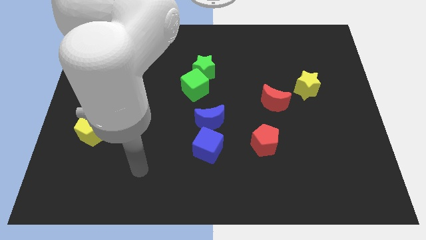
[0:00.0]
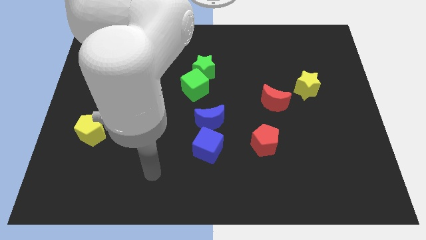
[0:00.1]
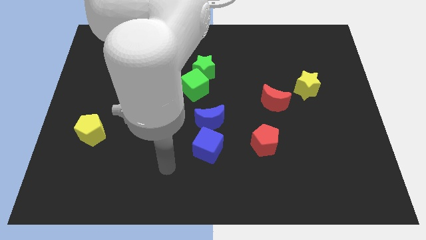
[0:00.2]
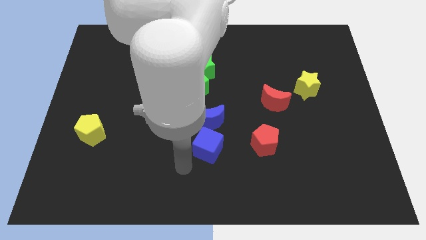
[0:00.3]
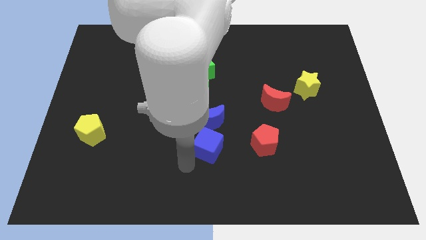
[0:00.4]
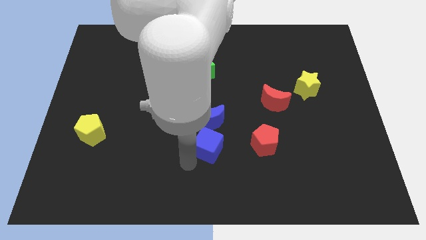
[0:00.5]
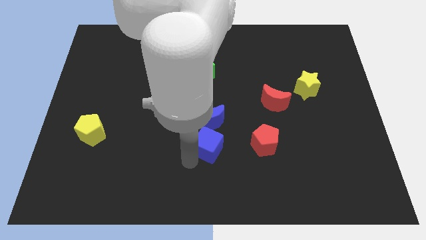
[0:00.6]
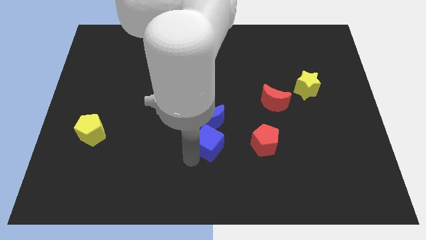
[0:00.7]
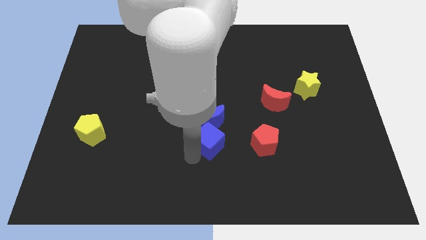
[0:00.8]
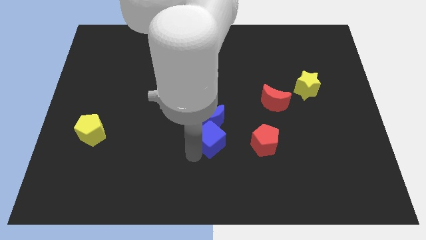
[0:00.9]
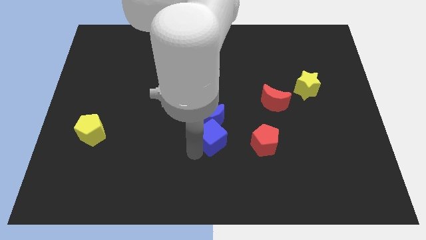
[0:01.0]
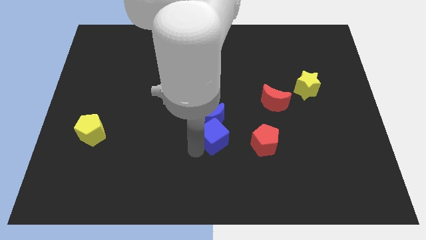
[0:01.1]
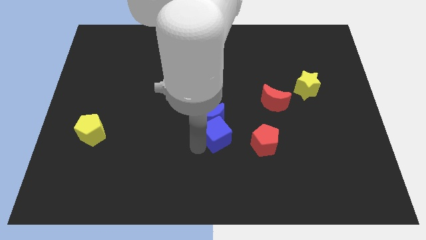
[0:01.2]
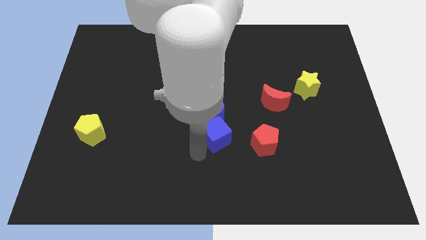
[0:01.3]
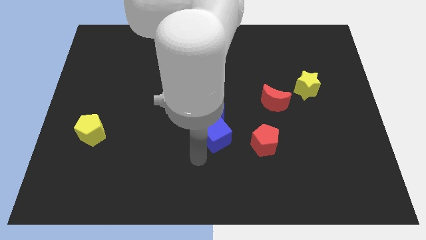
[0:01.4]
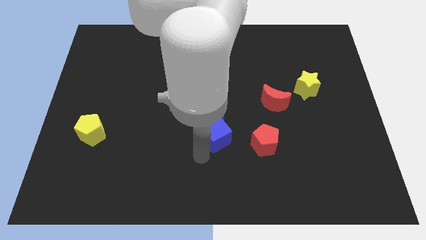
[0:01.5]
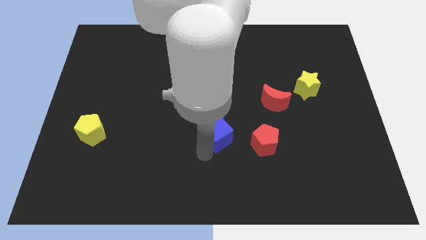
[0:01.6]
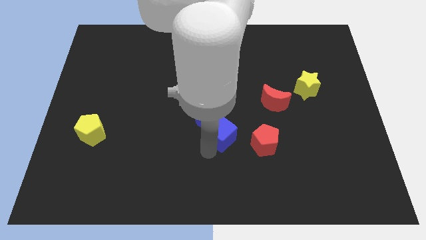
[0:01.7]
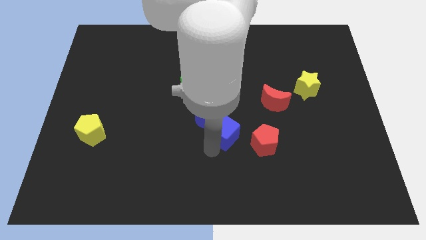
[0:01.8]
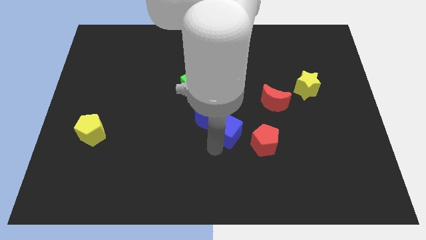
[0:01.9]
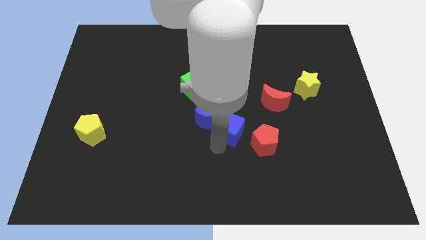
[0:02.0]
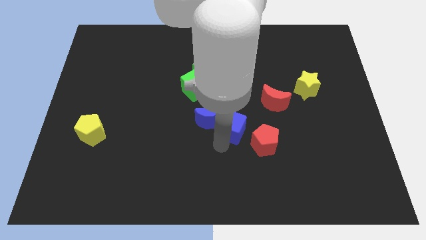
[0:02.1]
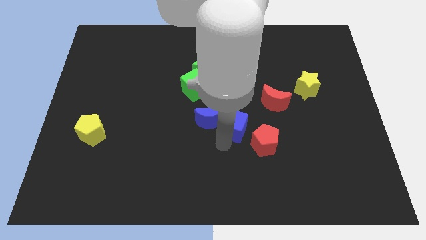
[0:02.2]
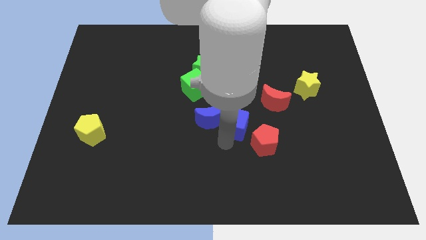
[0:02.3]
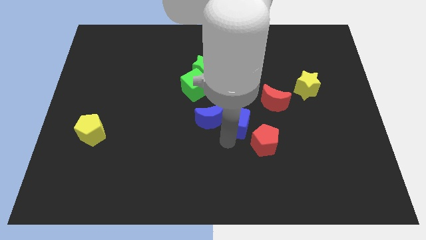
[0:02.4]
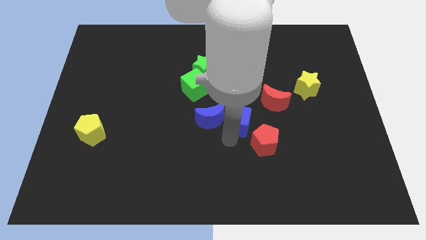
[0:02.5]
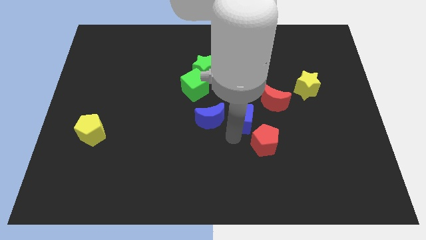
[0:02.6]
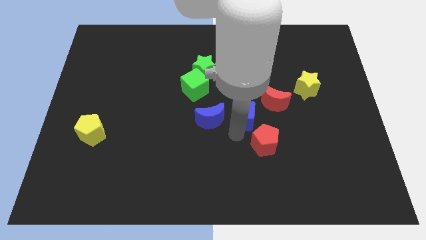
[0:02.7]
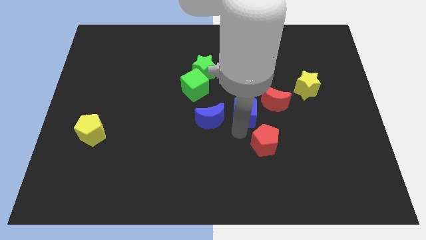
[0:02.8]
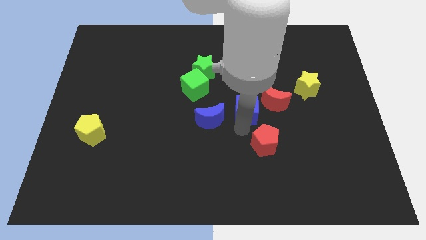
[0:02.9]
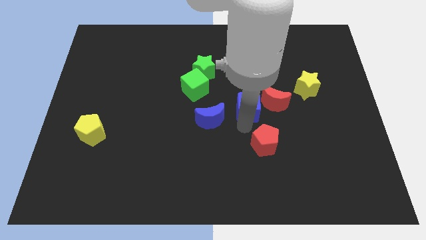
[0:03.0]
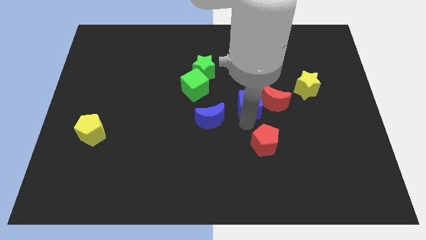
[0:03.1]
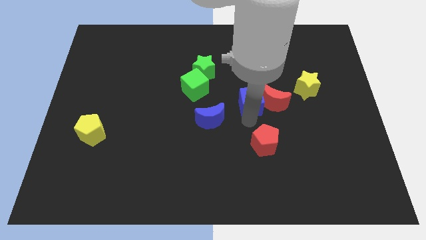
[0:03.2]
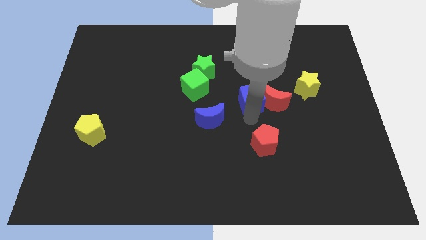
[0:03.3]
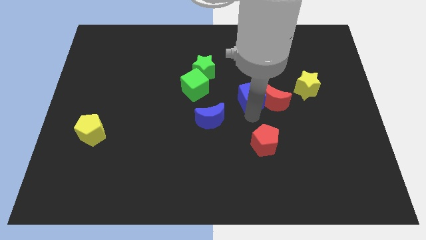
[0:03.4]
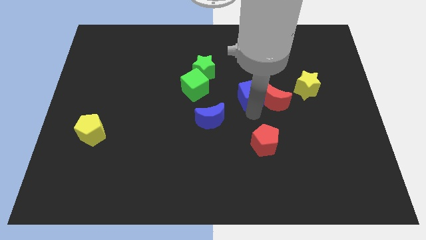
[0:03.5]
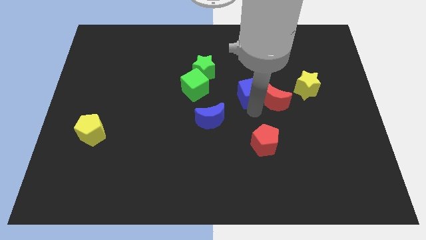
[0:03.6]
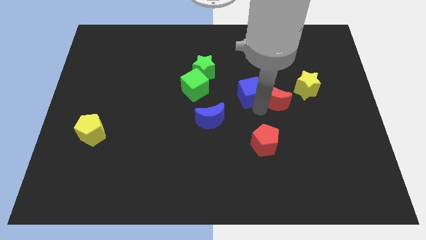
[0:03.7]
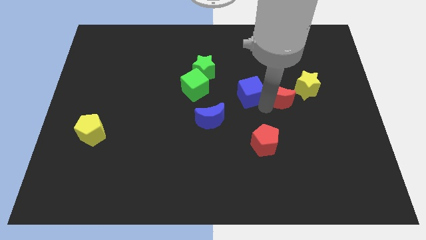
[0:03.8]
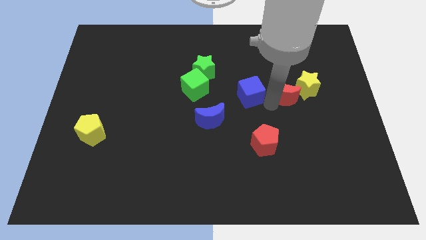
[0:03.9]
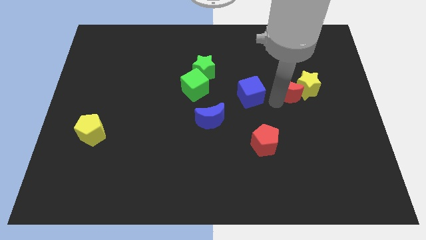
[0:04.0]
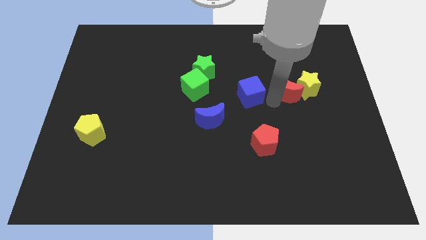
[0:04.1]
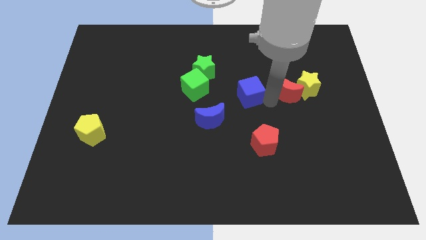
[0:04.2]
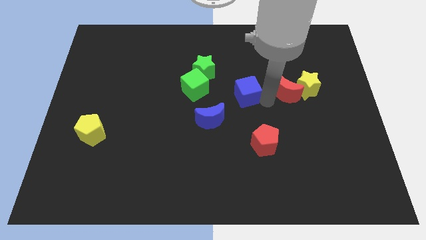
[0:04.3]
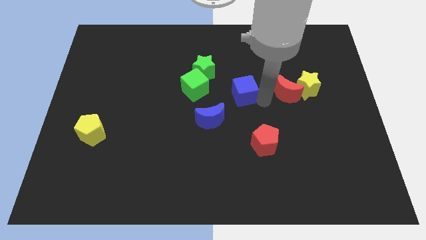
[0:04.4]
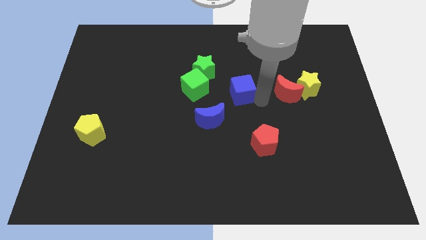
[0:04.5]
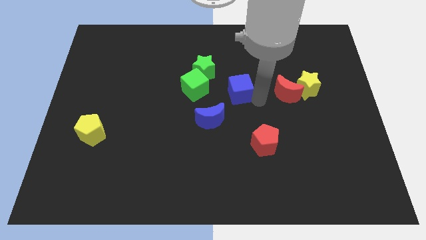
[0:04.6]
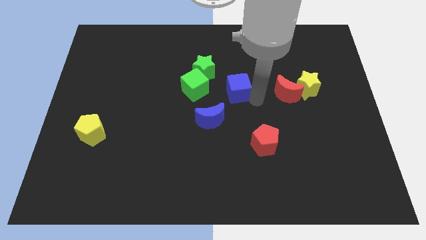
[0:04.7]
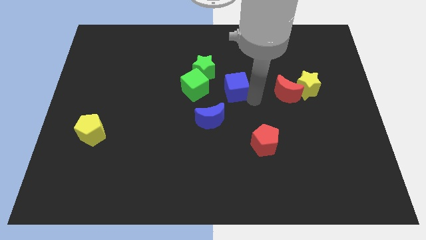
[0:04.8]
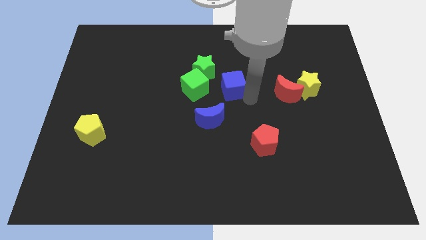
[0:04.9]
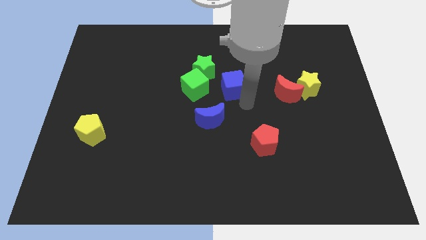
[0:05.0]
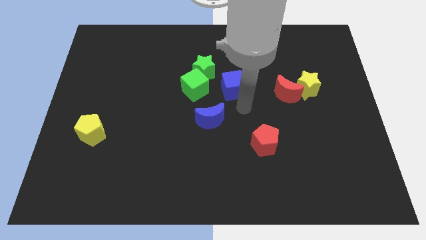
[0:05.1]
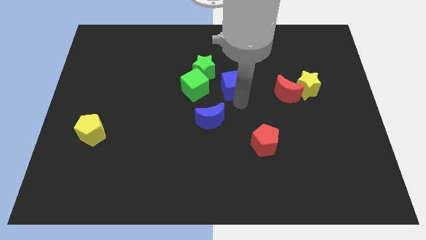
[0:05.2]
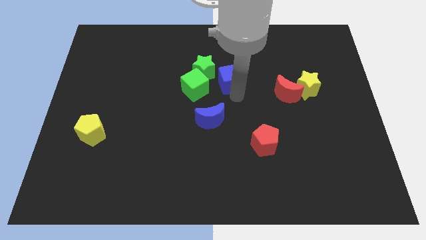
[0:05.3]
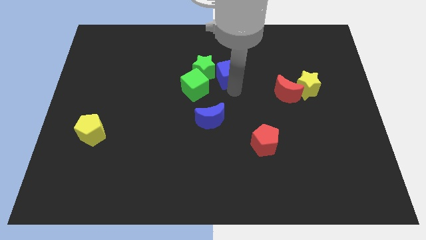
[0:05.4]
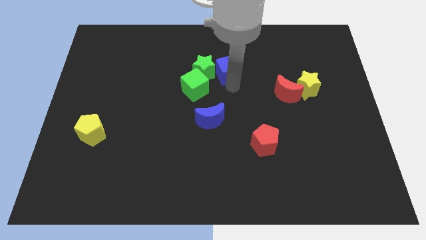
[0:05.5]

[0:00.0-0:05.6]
push the blue cube diagonally up and to the right of the green star

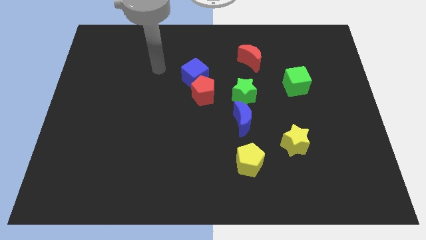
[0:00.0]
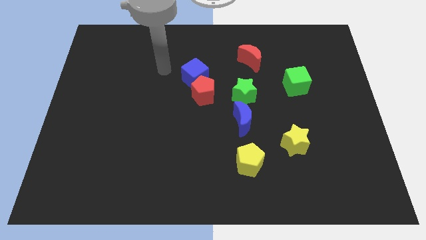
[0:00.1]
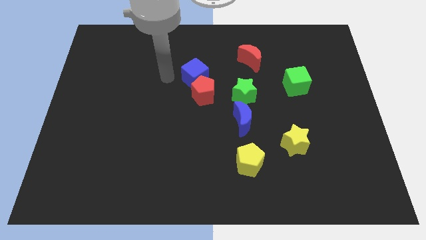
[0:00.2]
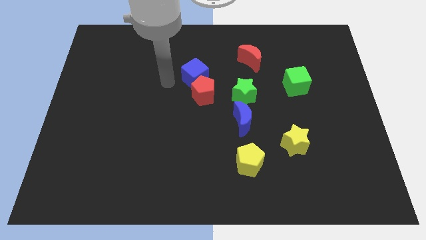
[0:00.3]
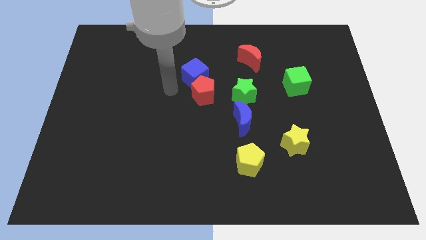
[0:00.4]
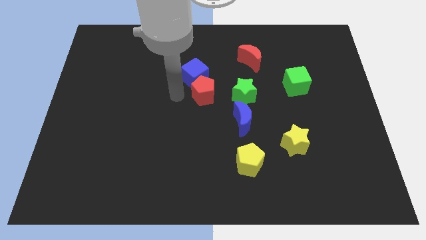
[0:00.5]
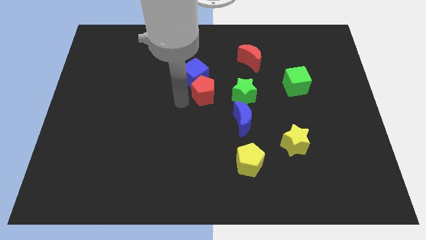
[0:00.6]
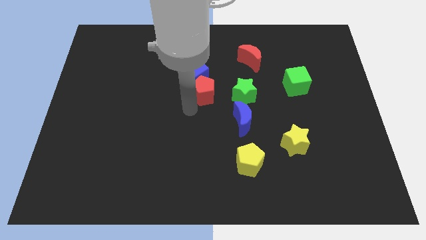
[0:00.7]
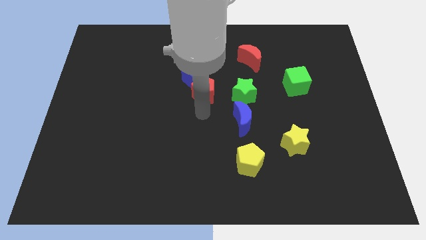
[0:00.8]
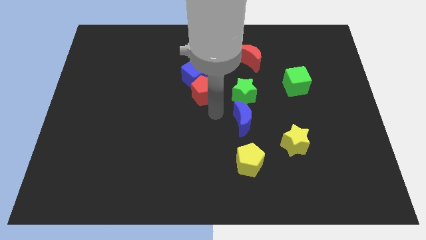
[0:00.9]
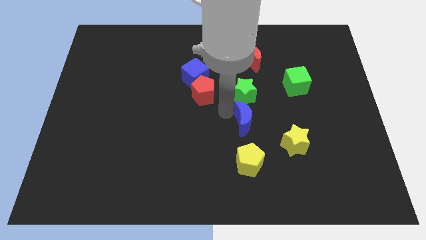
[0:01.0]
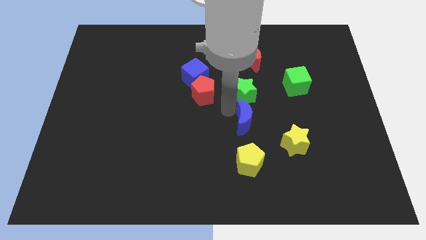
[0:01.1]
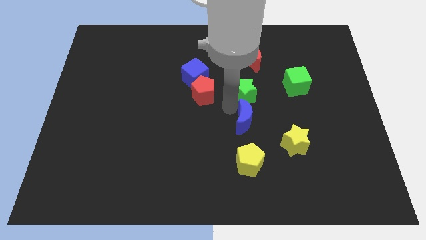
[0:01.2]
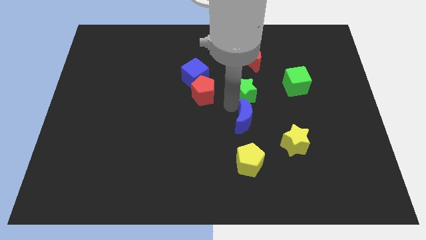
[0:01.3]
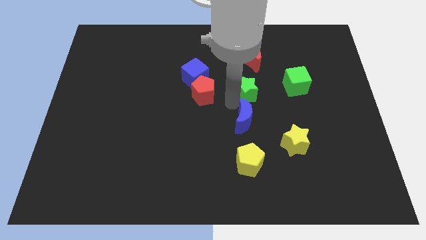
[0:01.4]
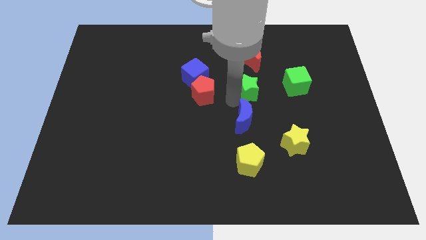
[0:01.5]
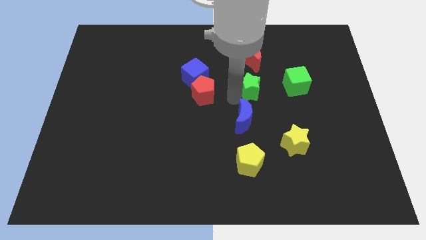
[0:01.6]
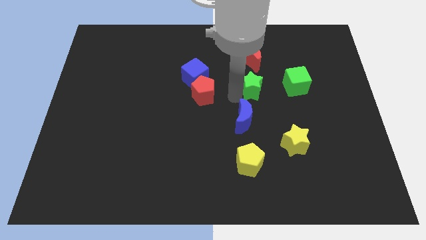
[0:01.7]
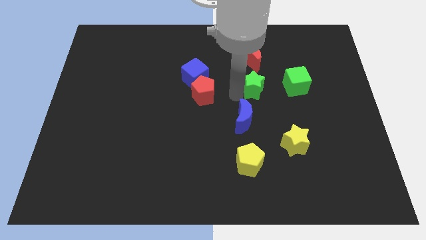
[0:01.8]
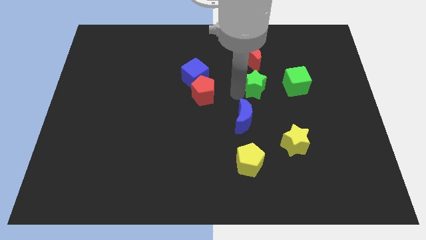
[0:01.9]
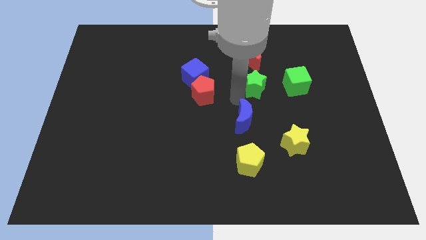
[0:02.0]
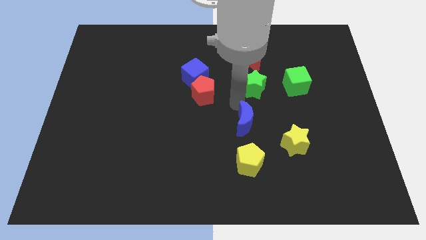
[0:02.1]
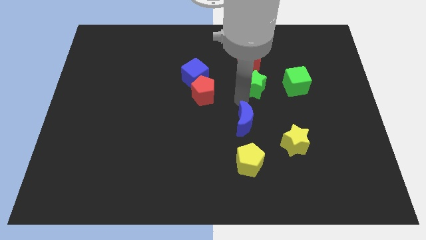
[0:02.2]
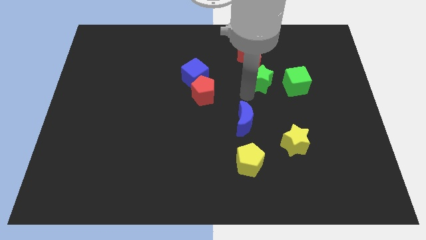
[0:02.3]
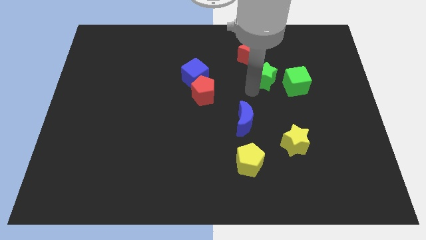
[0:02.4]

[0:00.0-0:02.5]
put the green star to the top left of the green cube
